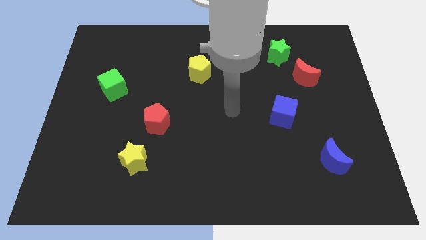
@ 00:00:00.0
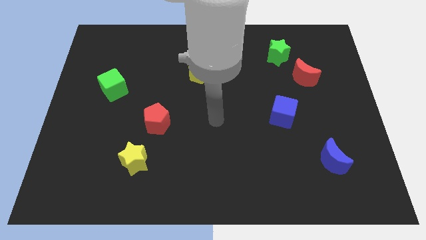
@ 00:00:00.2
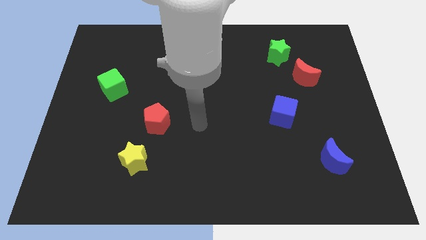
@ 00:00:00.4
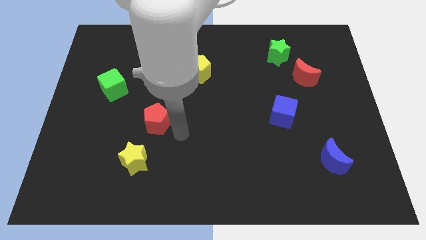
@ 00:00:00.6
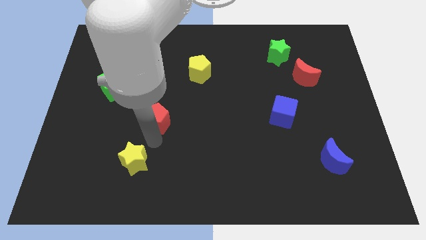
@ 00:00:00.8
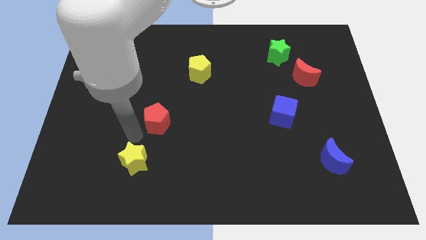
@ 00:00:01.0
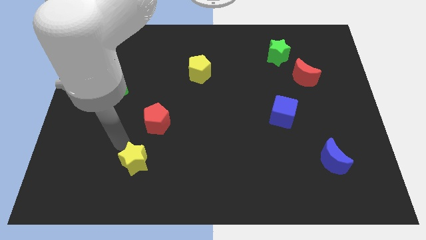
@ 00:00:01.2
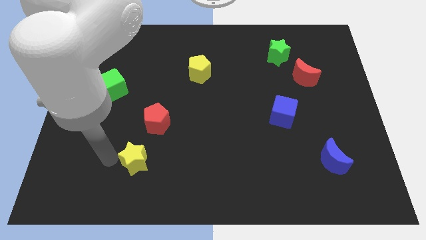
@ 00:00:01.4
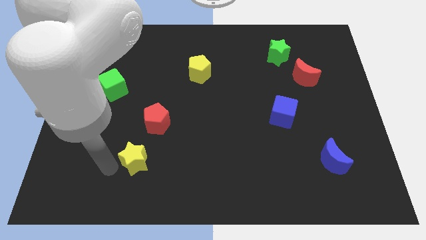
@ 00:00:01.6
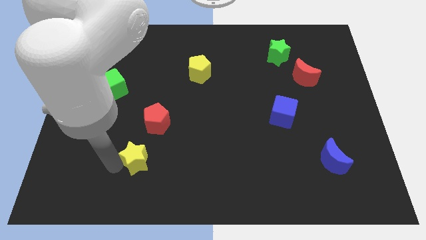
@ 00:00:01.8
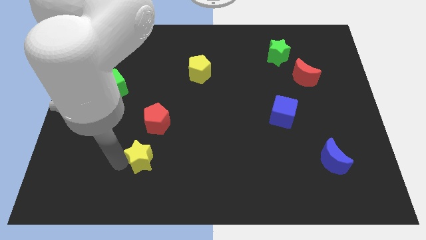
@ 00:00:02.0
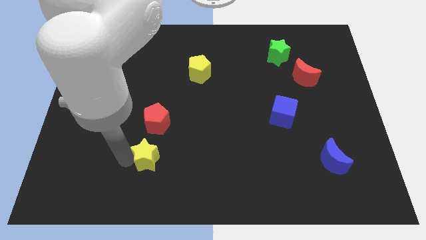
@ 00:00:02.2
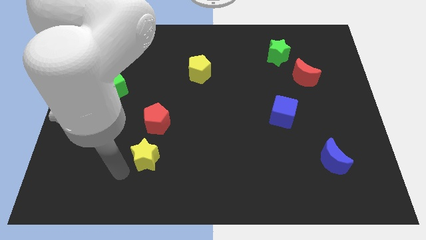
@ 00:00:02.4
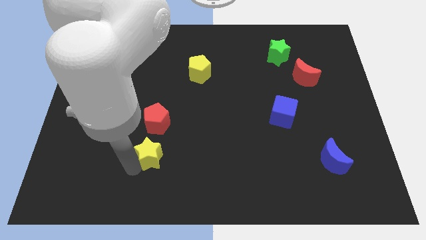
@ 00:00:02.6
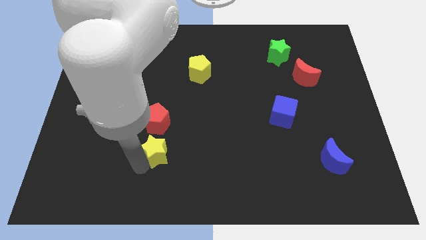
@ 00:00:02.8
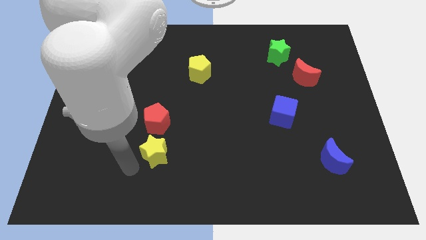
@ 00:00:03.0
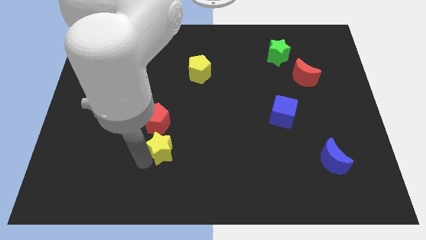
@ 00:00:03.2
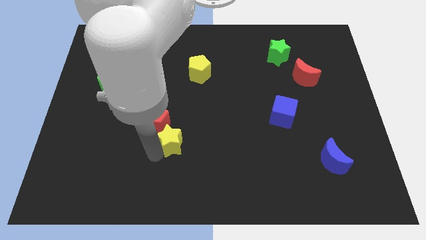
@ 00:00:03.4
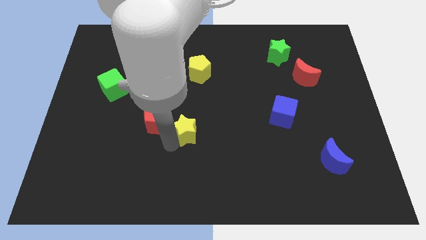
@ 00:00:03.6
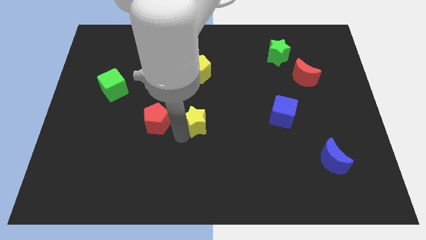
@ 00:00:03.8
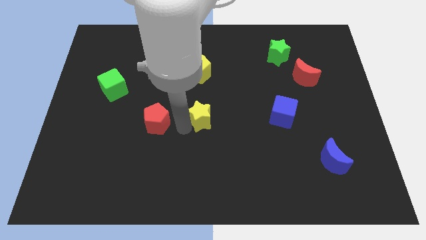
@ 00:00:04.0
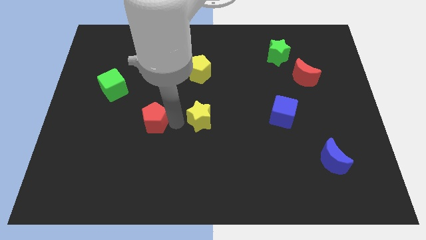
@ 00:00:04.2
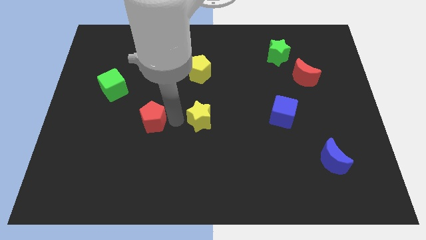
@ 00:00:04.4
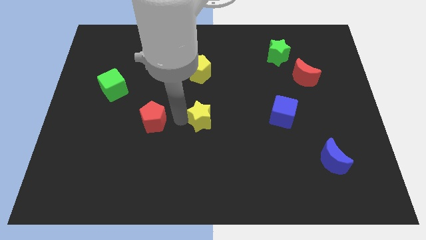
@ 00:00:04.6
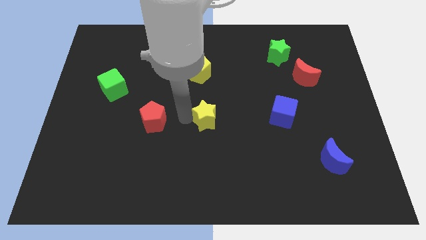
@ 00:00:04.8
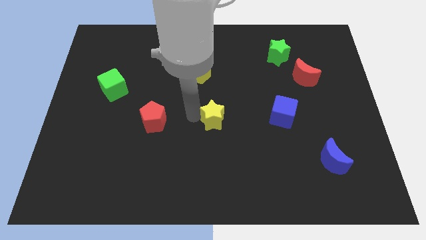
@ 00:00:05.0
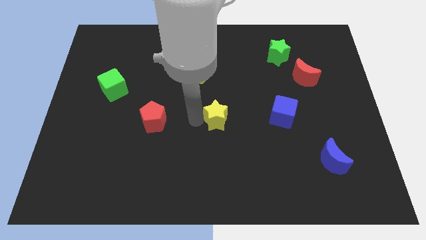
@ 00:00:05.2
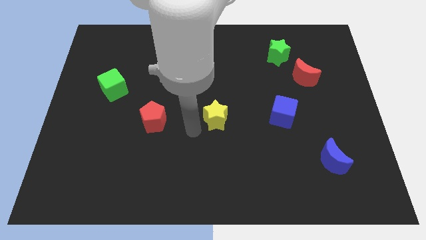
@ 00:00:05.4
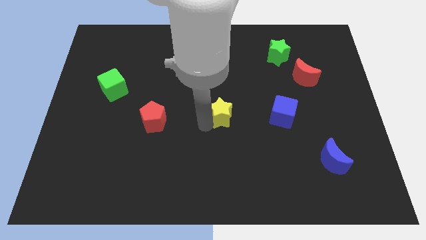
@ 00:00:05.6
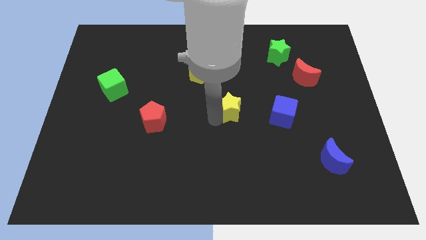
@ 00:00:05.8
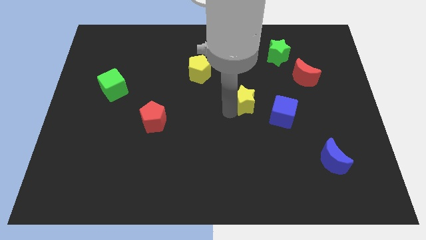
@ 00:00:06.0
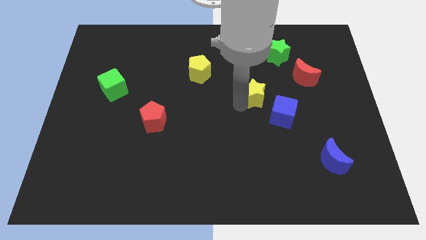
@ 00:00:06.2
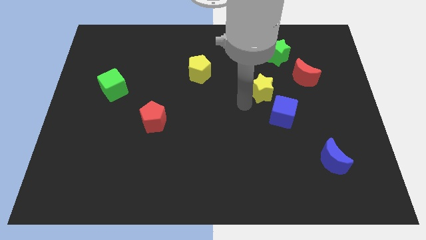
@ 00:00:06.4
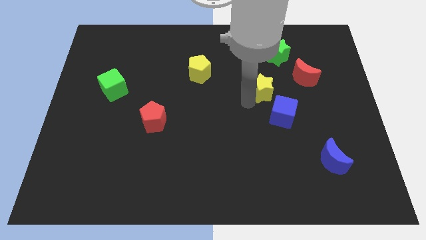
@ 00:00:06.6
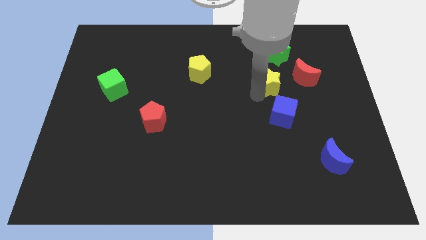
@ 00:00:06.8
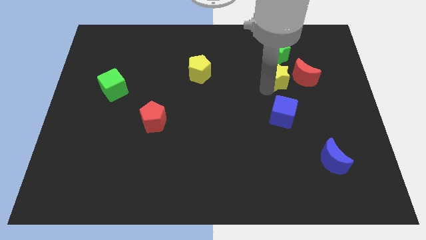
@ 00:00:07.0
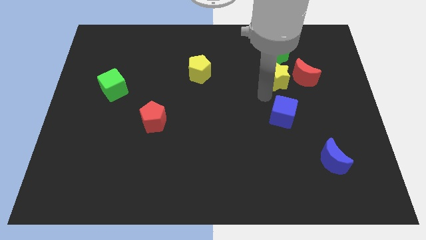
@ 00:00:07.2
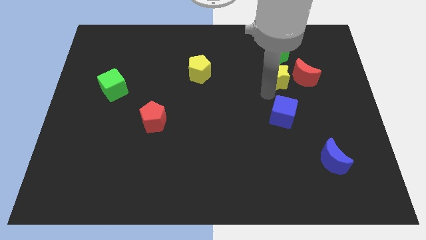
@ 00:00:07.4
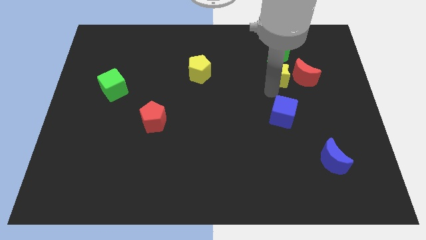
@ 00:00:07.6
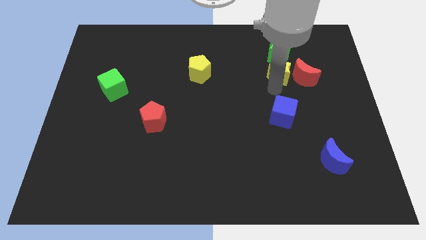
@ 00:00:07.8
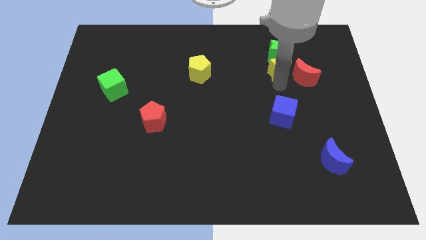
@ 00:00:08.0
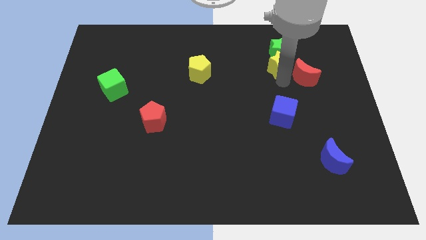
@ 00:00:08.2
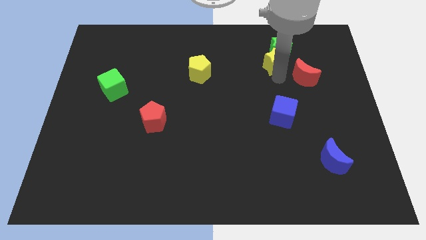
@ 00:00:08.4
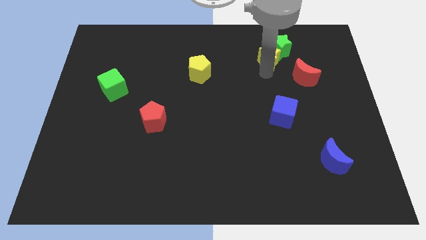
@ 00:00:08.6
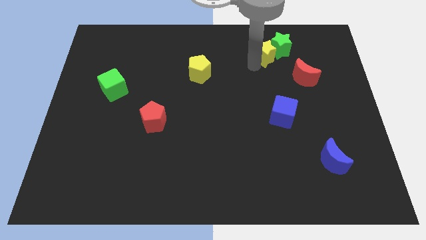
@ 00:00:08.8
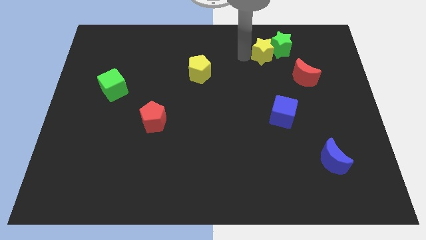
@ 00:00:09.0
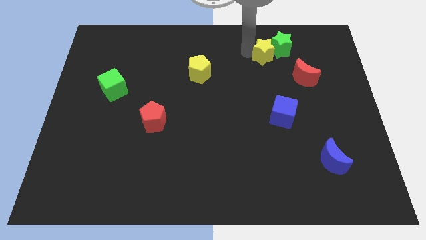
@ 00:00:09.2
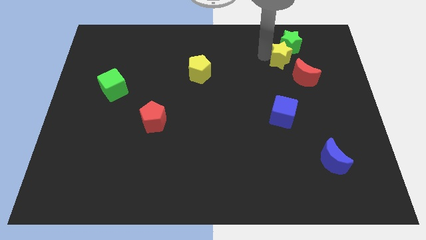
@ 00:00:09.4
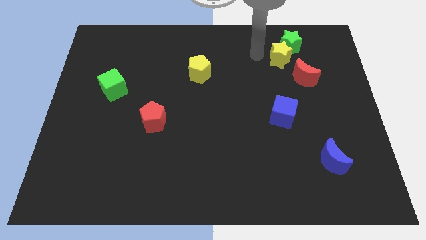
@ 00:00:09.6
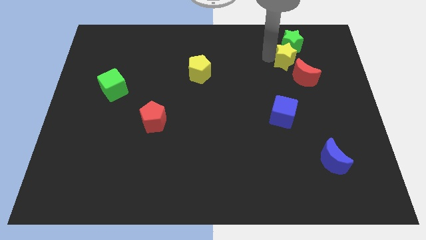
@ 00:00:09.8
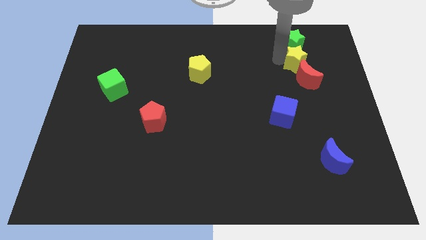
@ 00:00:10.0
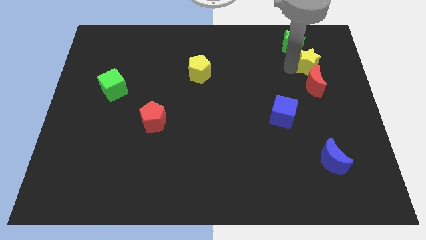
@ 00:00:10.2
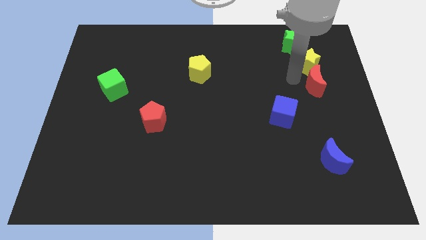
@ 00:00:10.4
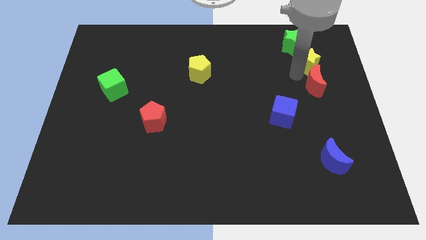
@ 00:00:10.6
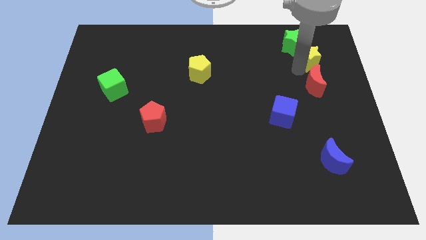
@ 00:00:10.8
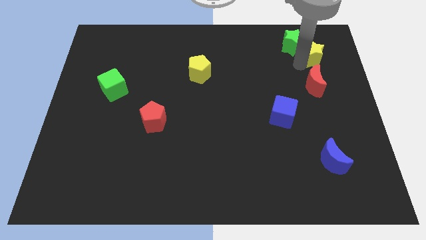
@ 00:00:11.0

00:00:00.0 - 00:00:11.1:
move the yellow star right of the green star

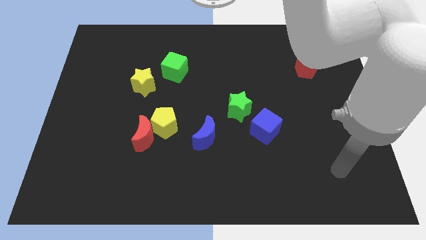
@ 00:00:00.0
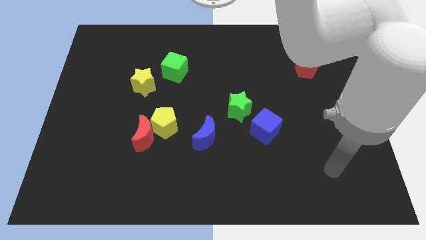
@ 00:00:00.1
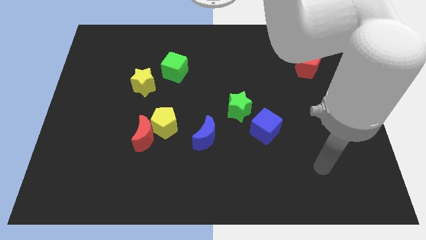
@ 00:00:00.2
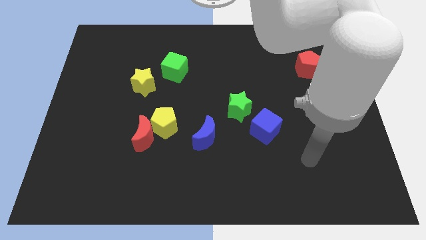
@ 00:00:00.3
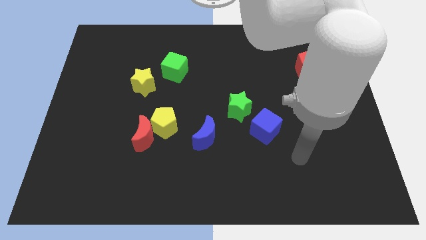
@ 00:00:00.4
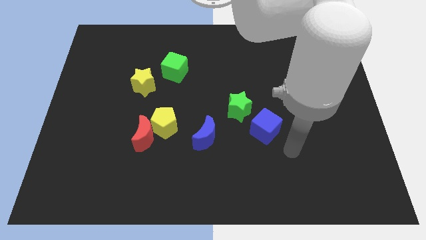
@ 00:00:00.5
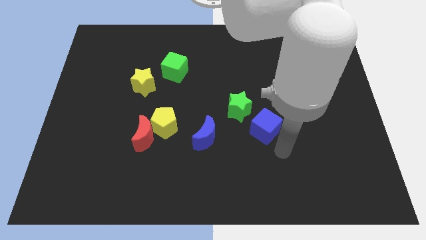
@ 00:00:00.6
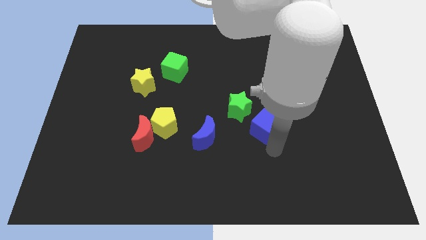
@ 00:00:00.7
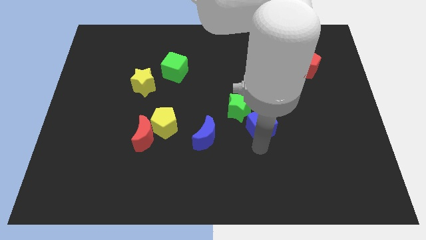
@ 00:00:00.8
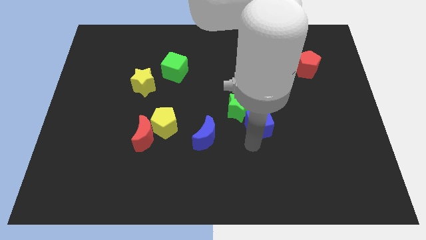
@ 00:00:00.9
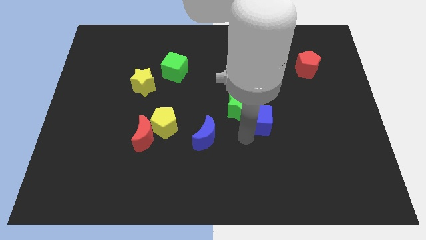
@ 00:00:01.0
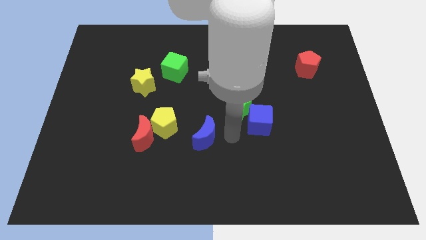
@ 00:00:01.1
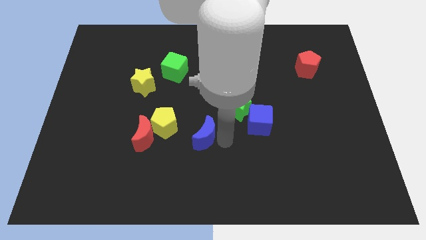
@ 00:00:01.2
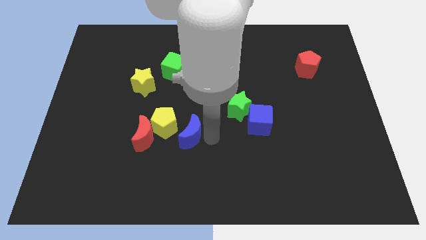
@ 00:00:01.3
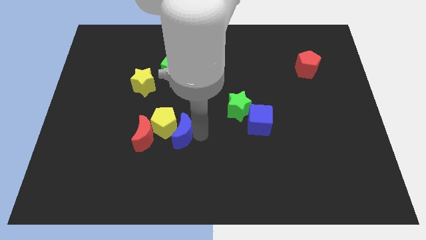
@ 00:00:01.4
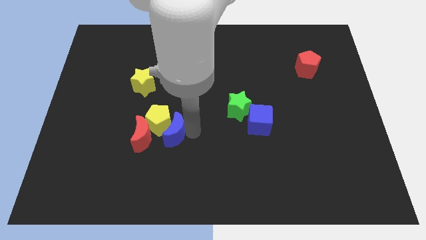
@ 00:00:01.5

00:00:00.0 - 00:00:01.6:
push the yellow pentagon below the yellow star
